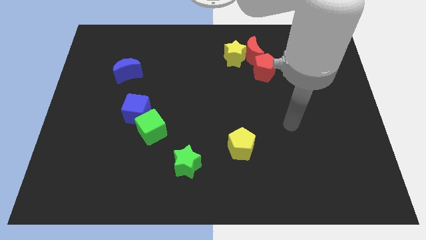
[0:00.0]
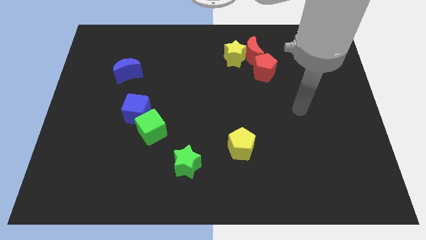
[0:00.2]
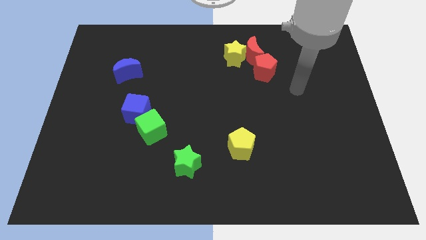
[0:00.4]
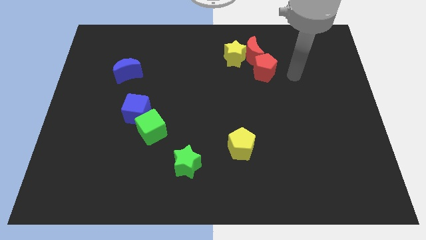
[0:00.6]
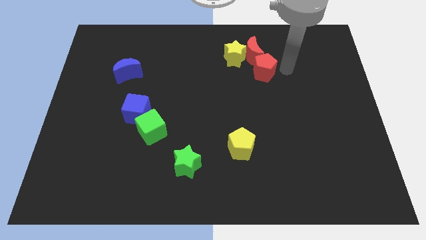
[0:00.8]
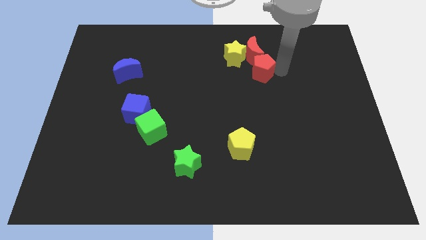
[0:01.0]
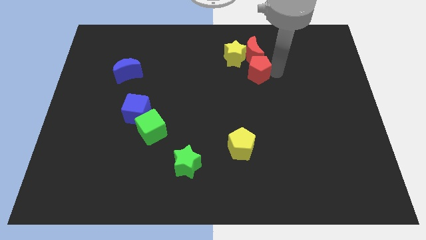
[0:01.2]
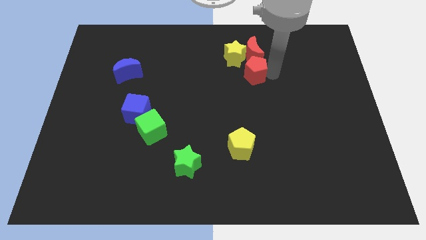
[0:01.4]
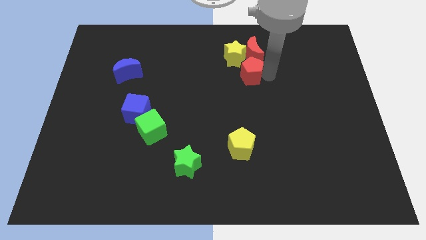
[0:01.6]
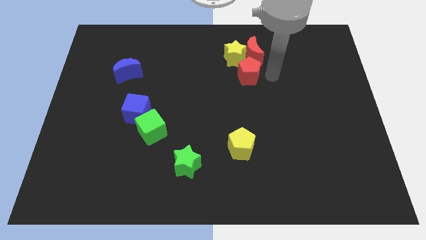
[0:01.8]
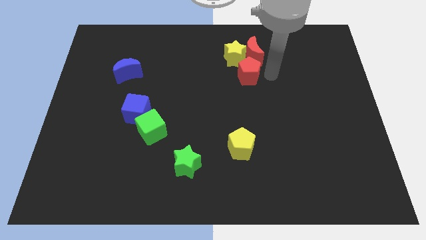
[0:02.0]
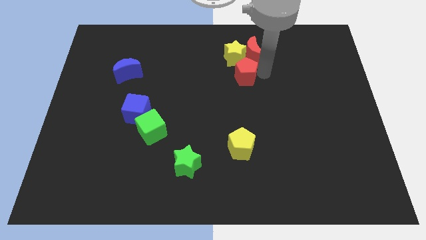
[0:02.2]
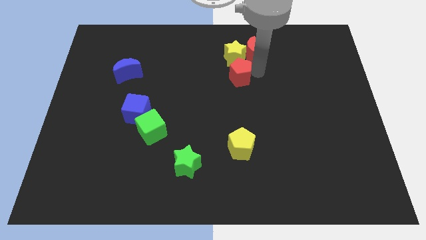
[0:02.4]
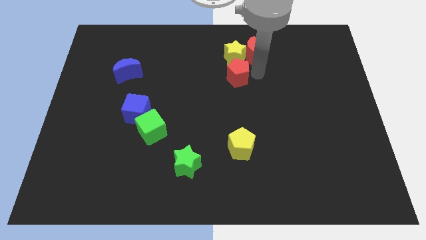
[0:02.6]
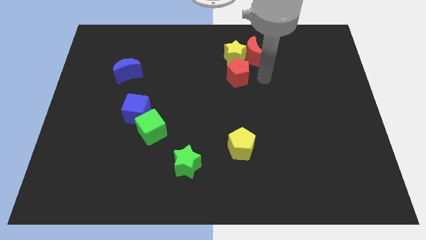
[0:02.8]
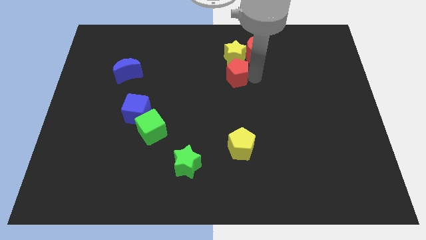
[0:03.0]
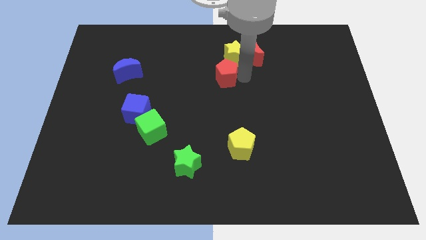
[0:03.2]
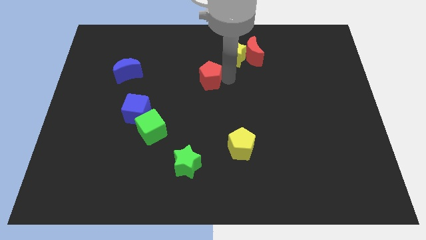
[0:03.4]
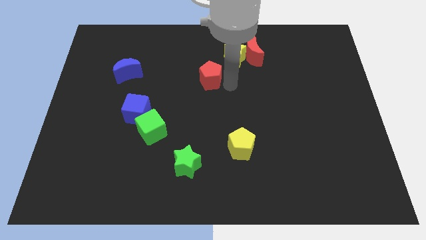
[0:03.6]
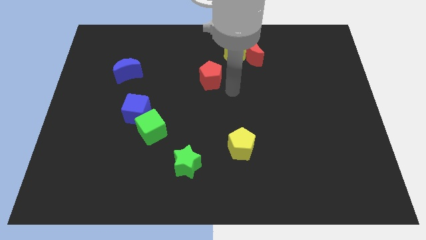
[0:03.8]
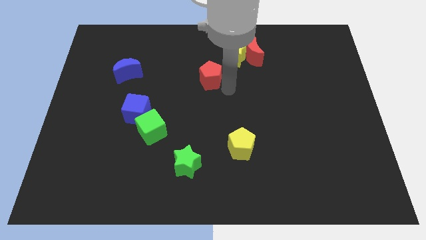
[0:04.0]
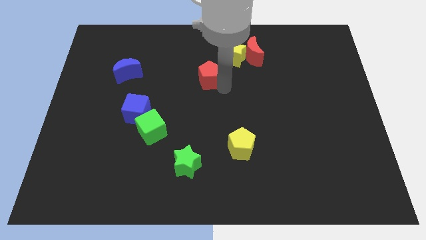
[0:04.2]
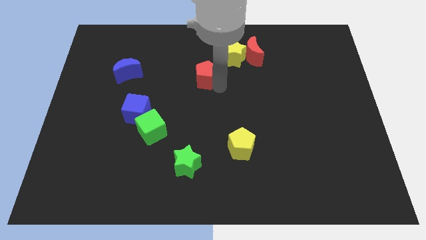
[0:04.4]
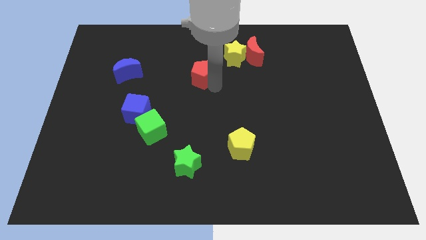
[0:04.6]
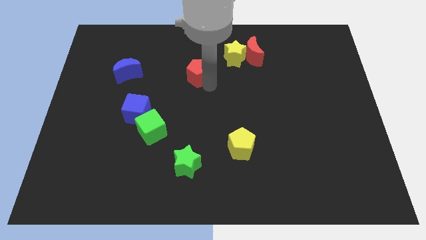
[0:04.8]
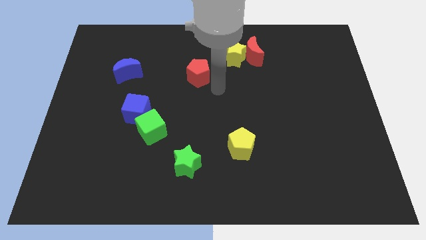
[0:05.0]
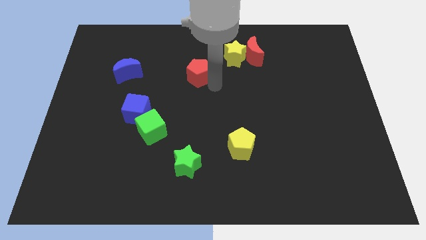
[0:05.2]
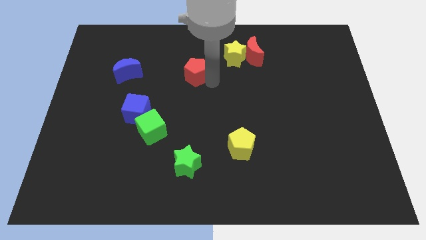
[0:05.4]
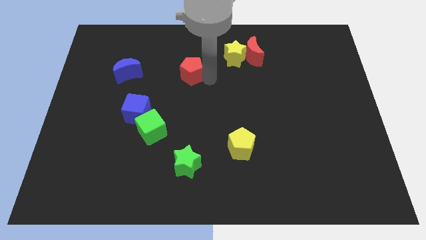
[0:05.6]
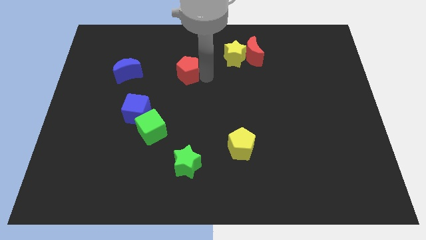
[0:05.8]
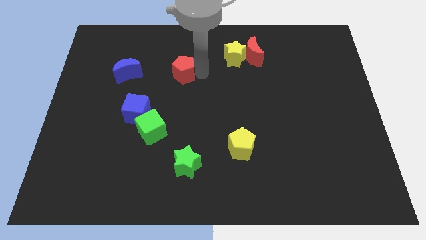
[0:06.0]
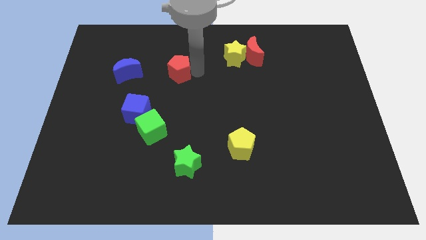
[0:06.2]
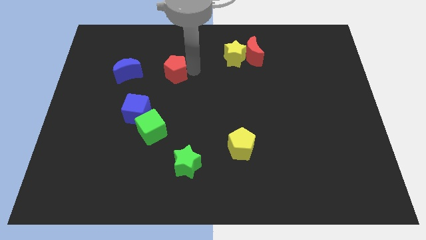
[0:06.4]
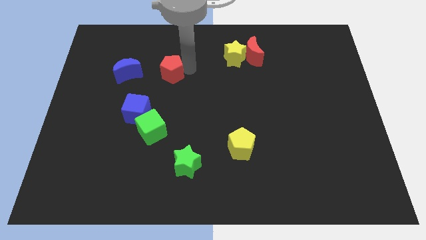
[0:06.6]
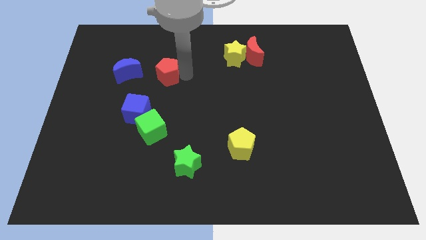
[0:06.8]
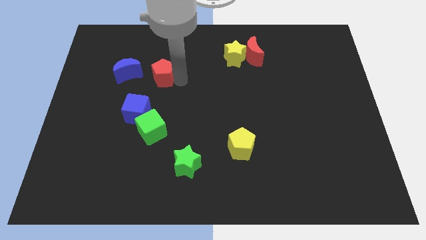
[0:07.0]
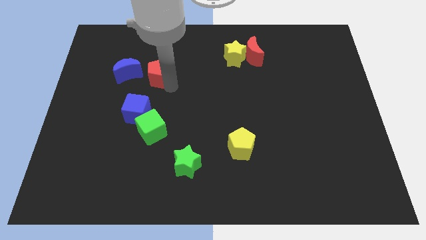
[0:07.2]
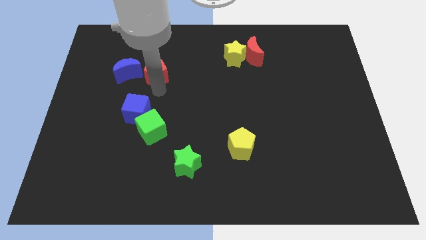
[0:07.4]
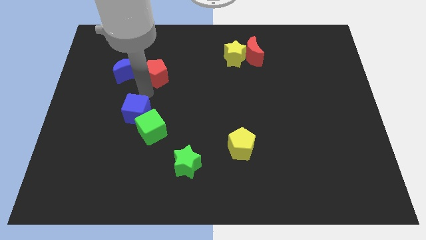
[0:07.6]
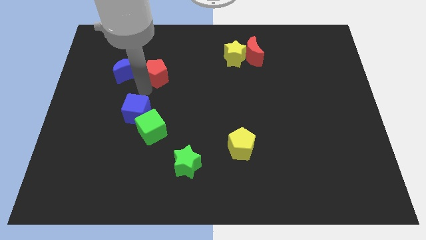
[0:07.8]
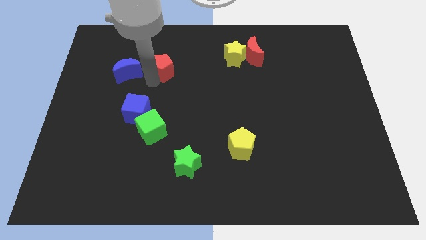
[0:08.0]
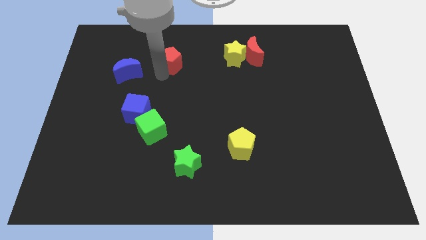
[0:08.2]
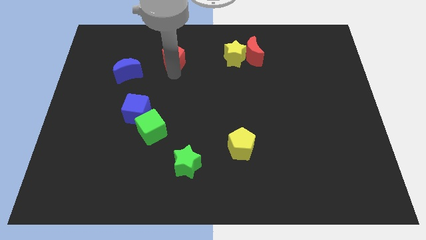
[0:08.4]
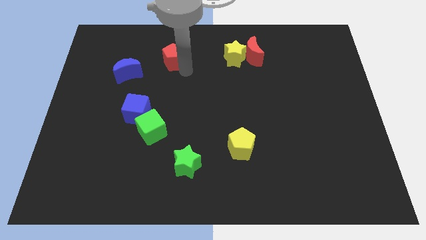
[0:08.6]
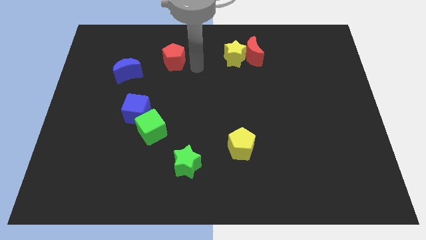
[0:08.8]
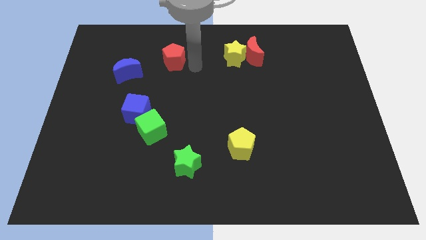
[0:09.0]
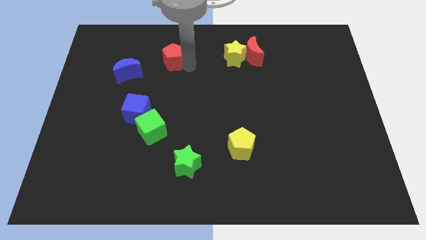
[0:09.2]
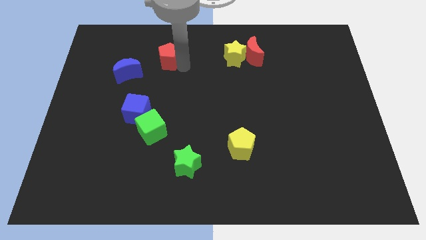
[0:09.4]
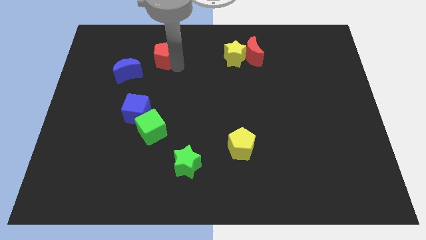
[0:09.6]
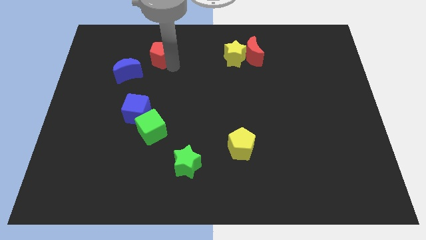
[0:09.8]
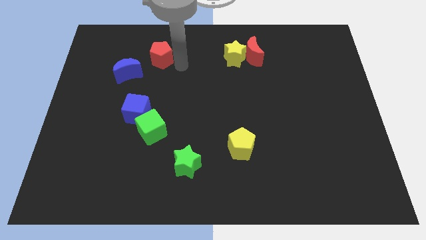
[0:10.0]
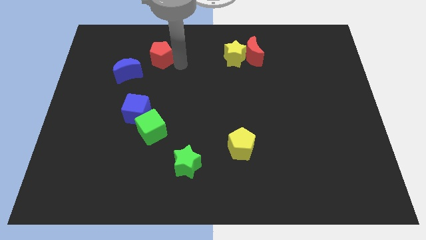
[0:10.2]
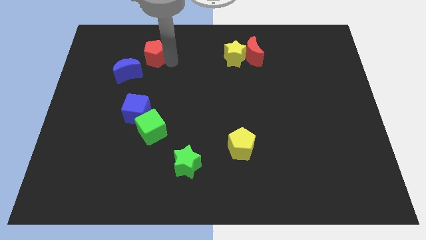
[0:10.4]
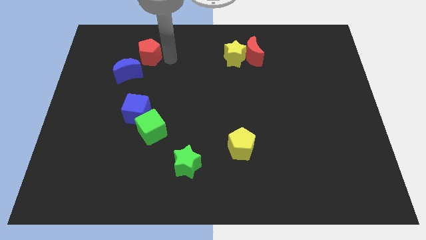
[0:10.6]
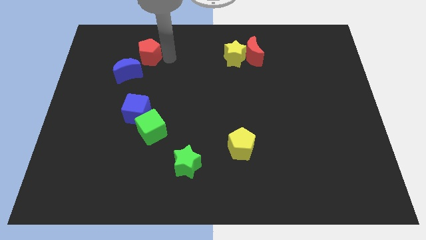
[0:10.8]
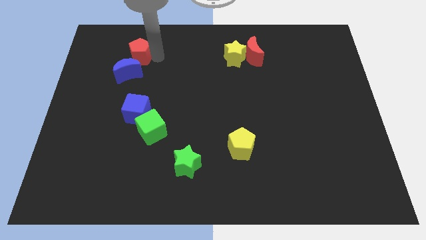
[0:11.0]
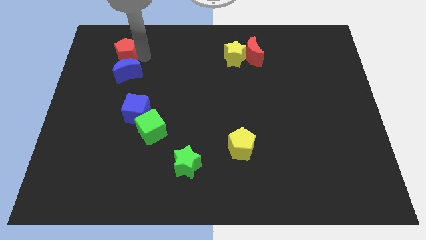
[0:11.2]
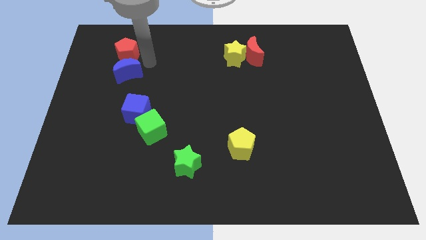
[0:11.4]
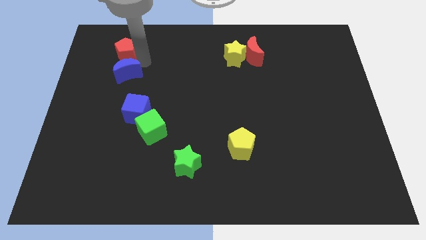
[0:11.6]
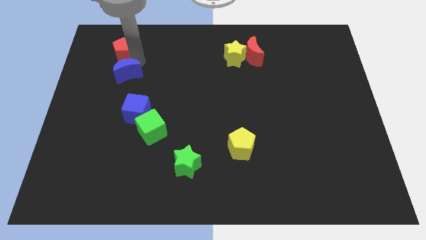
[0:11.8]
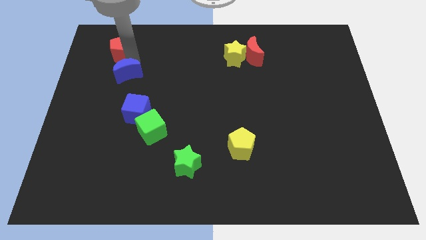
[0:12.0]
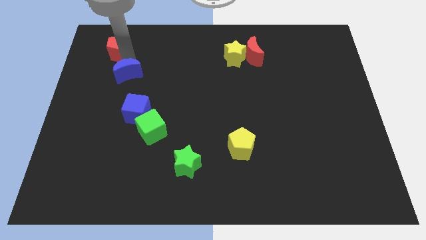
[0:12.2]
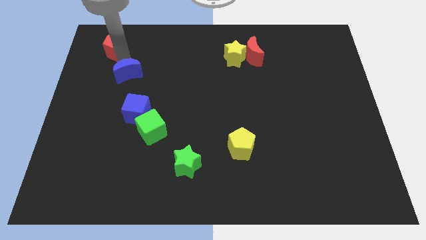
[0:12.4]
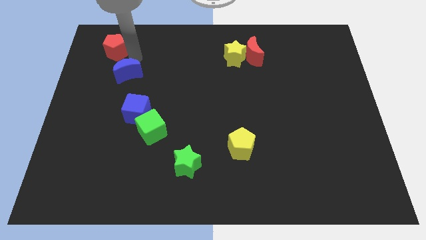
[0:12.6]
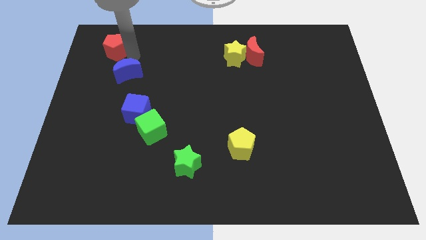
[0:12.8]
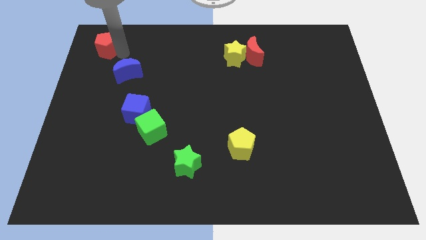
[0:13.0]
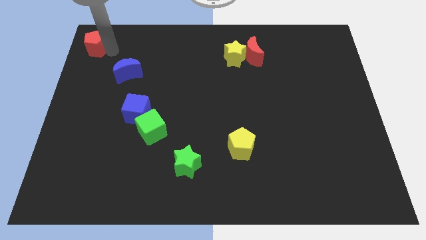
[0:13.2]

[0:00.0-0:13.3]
move the red pentagon to the top left corner

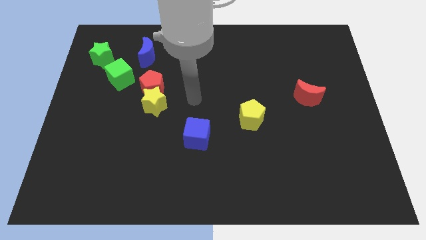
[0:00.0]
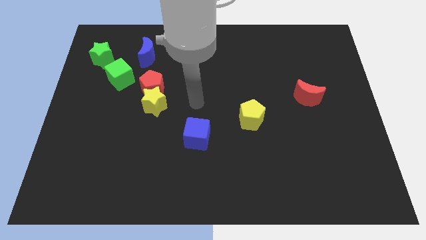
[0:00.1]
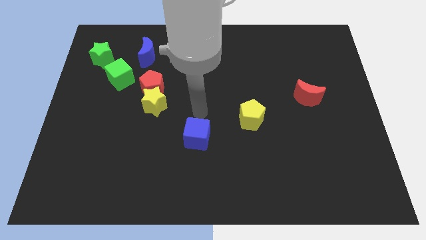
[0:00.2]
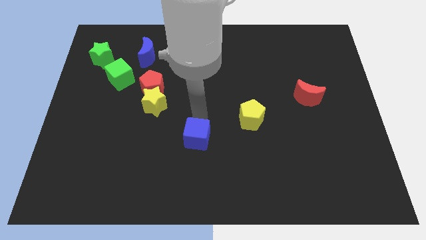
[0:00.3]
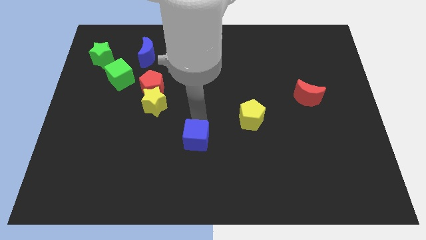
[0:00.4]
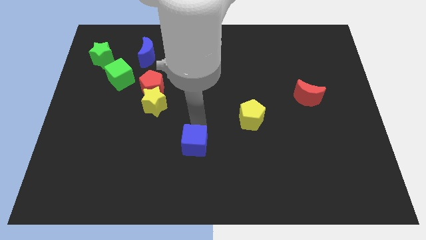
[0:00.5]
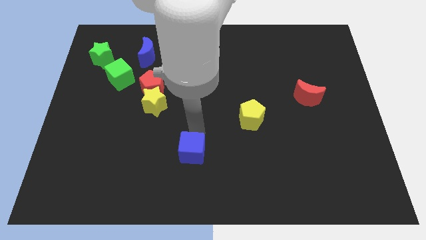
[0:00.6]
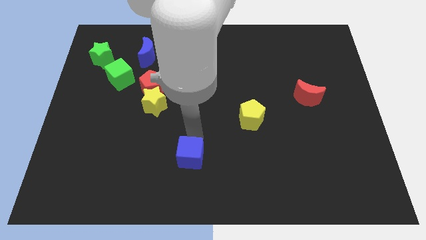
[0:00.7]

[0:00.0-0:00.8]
put the blue cube to the bottom
